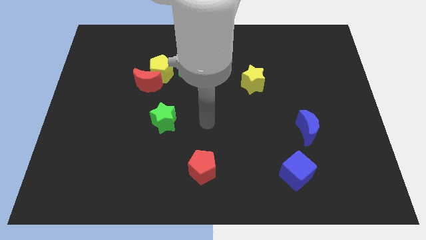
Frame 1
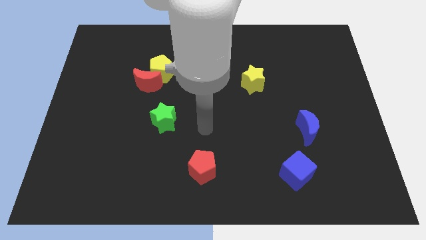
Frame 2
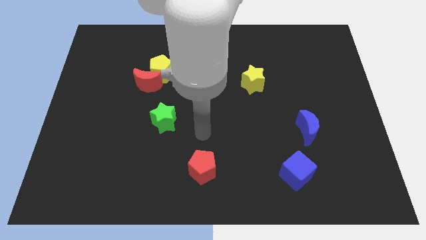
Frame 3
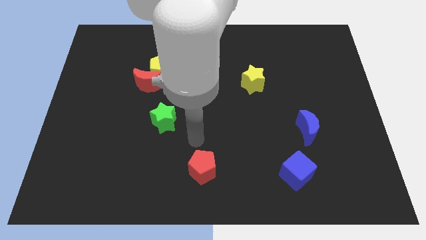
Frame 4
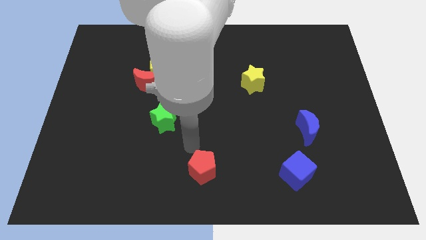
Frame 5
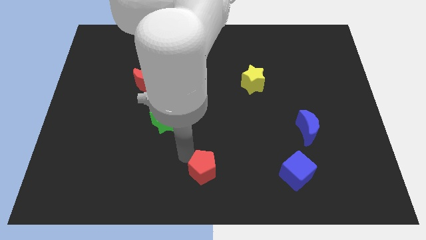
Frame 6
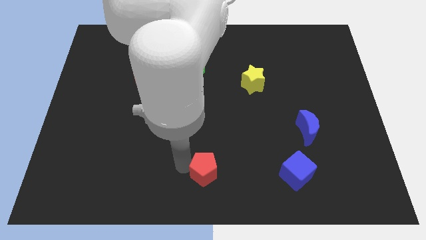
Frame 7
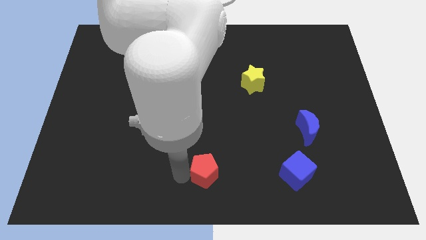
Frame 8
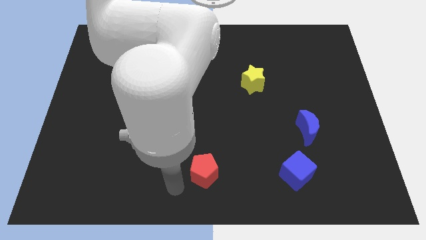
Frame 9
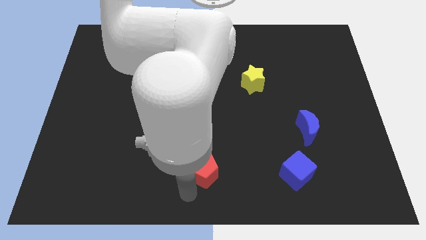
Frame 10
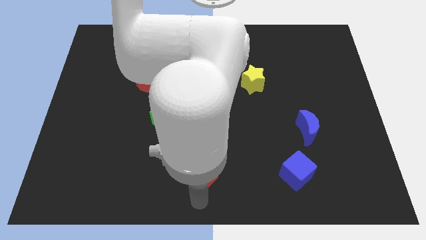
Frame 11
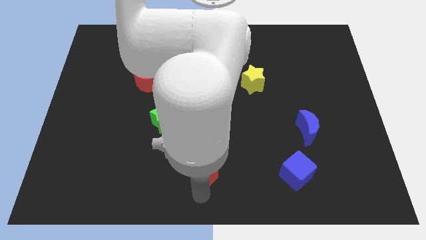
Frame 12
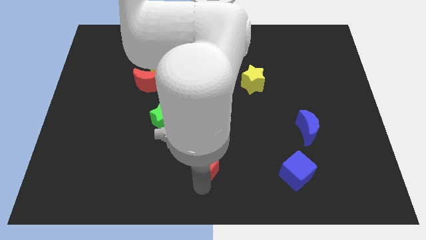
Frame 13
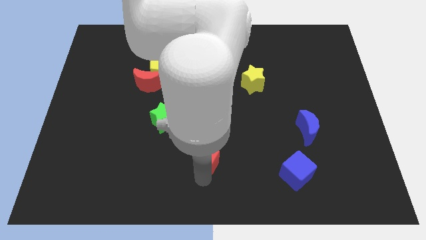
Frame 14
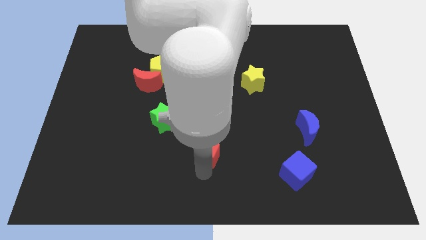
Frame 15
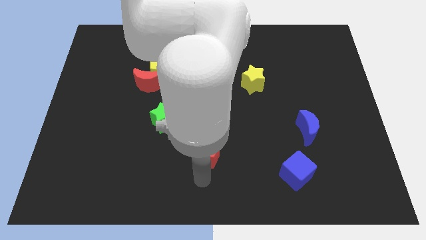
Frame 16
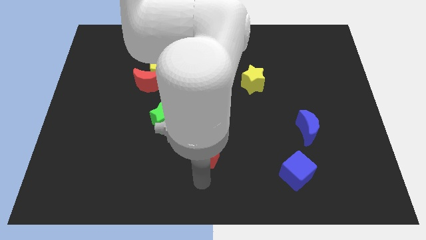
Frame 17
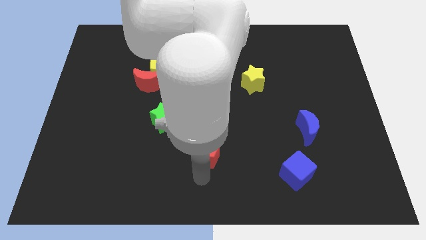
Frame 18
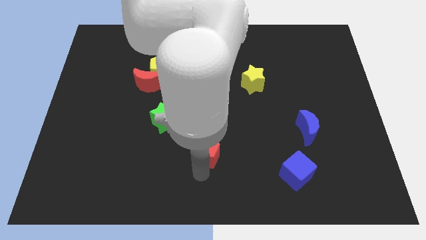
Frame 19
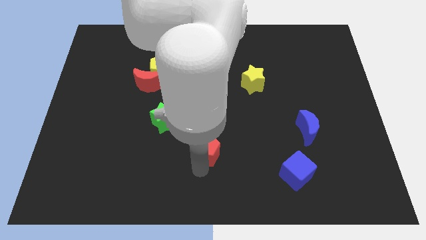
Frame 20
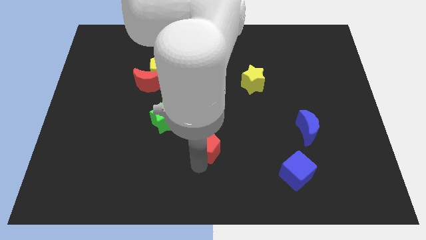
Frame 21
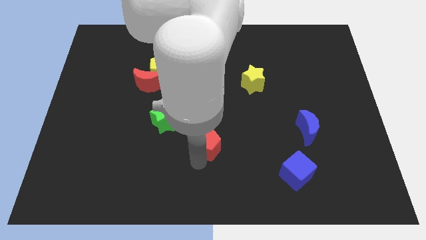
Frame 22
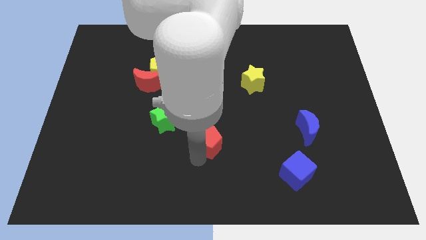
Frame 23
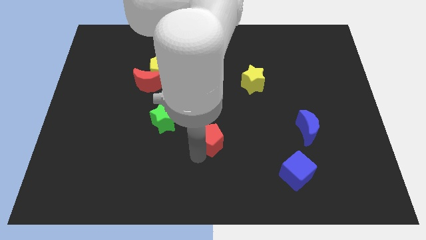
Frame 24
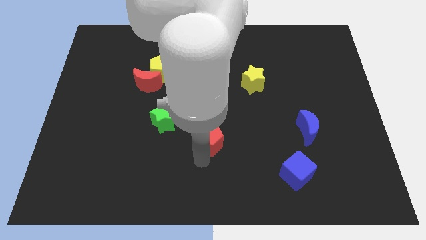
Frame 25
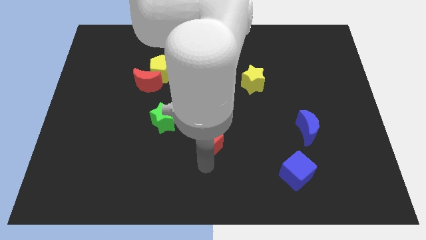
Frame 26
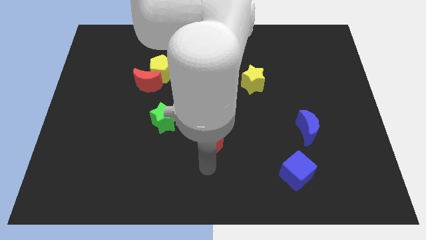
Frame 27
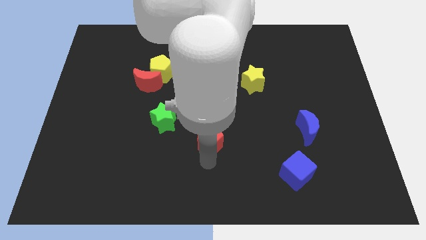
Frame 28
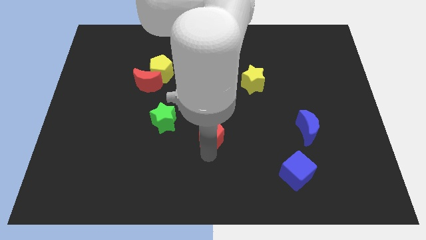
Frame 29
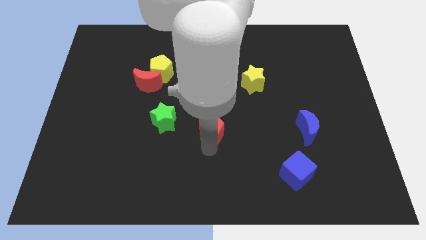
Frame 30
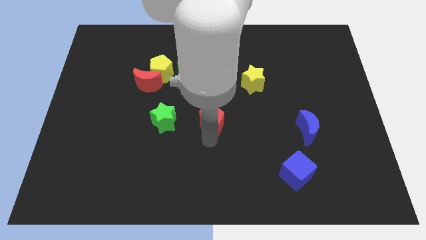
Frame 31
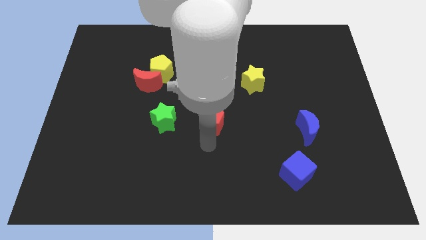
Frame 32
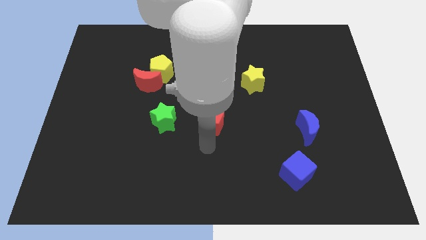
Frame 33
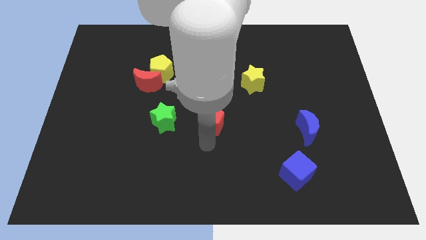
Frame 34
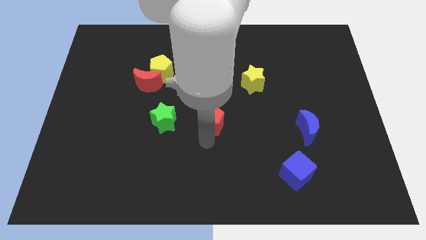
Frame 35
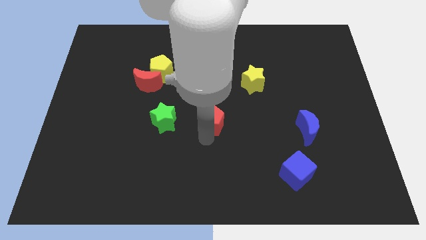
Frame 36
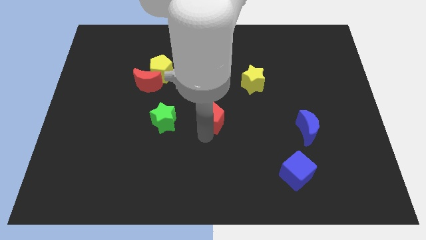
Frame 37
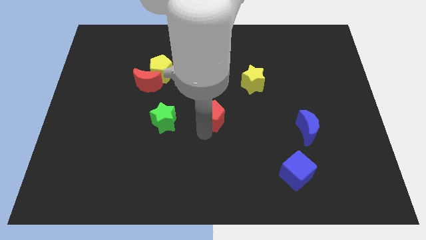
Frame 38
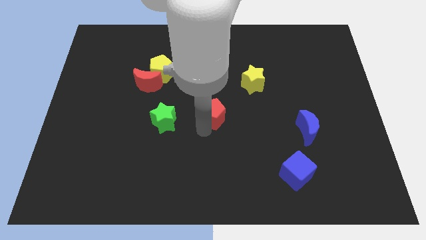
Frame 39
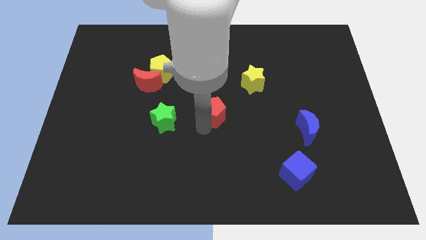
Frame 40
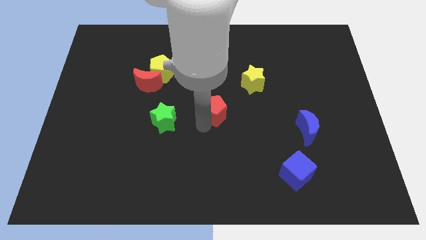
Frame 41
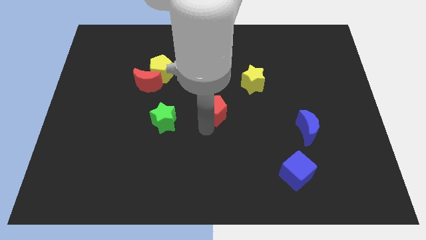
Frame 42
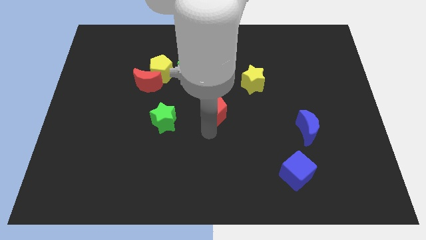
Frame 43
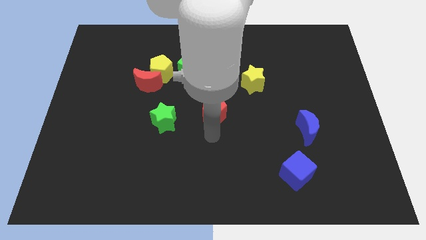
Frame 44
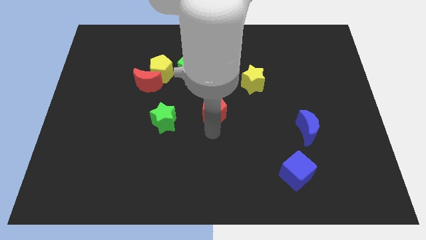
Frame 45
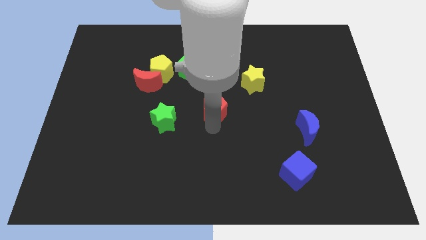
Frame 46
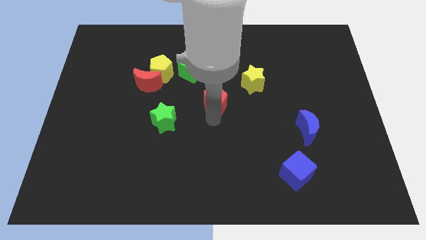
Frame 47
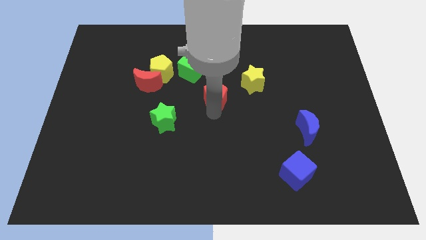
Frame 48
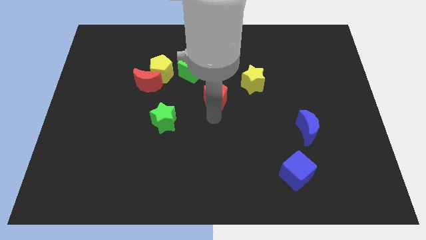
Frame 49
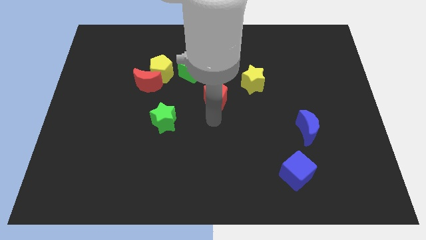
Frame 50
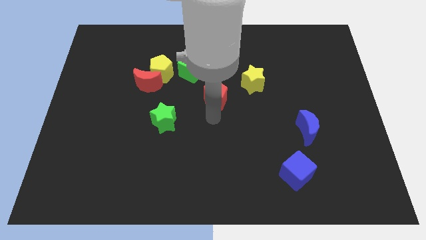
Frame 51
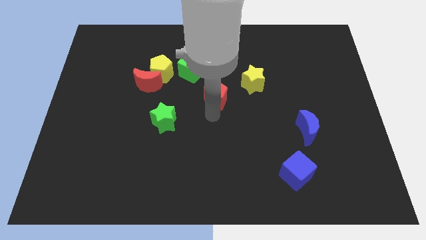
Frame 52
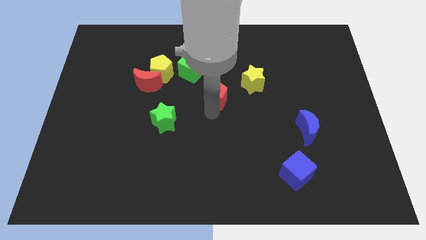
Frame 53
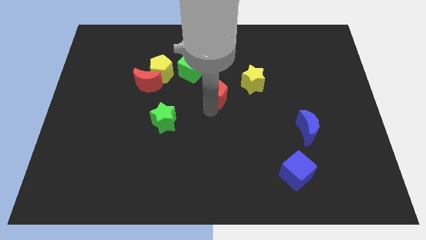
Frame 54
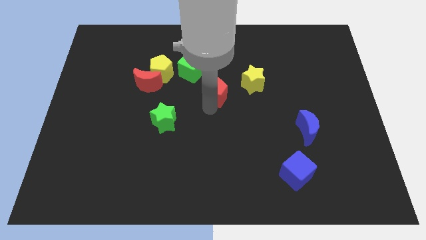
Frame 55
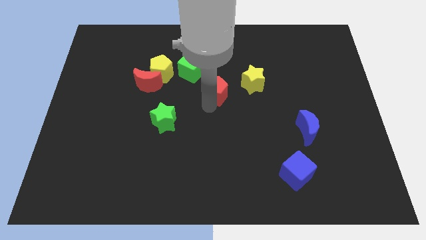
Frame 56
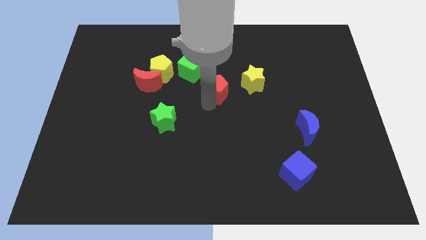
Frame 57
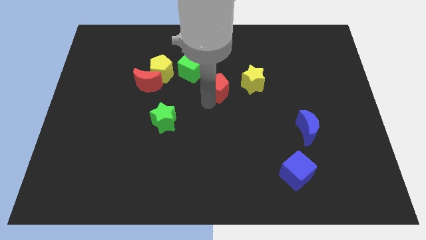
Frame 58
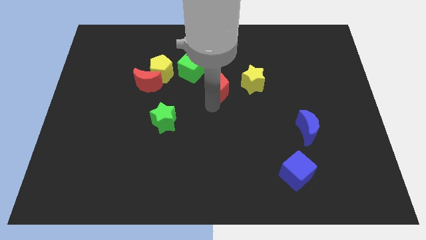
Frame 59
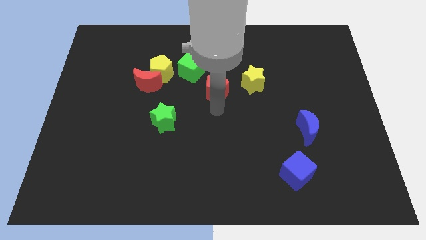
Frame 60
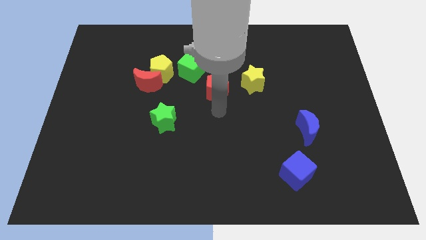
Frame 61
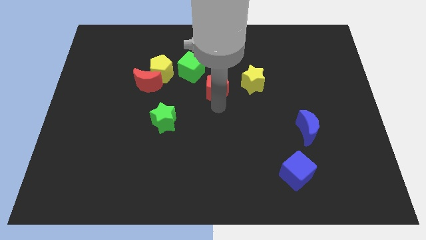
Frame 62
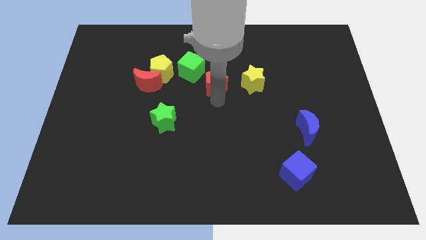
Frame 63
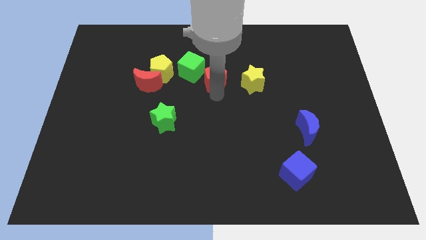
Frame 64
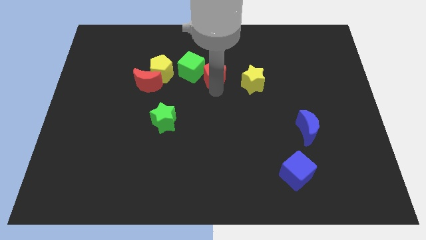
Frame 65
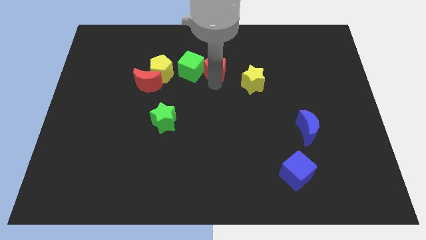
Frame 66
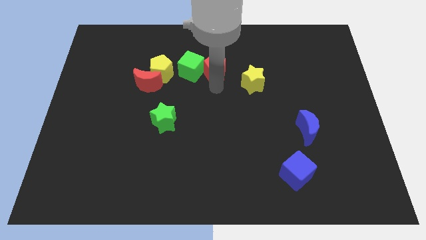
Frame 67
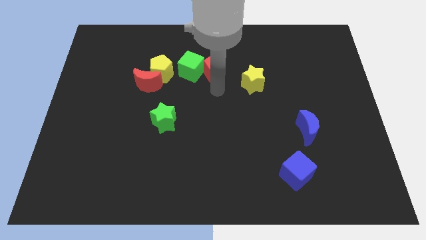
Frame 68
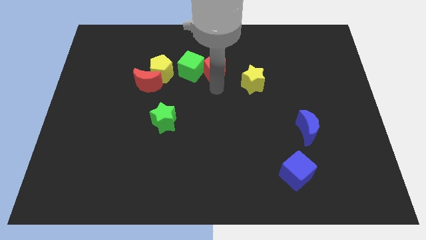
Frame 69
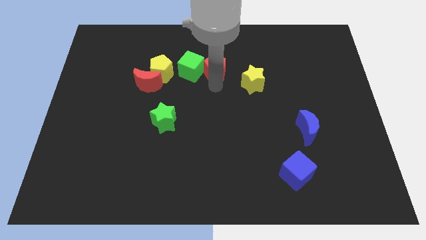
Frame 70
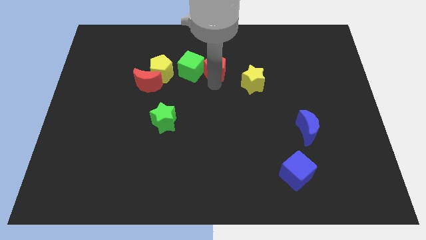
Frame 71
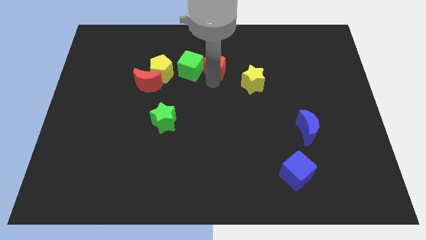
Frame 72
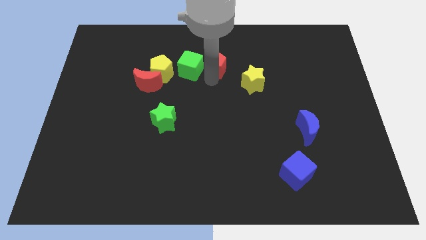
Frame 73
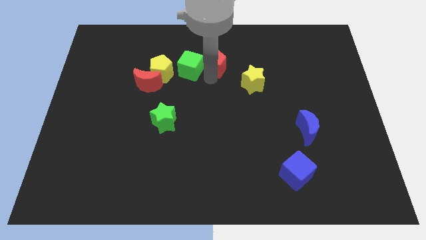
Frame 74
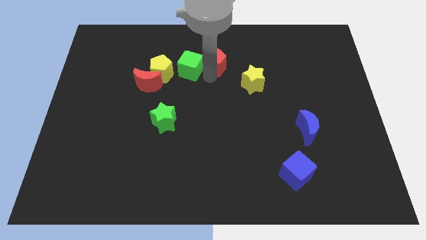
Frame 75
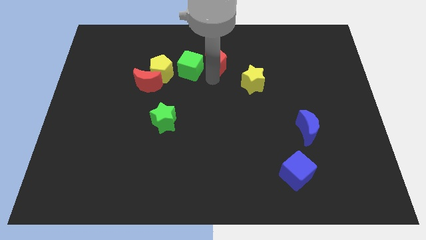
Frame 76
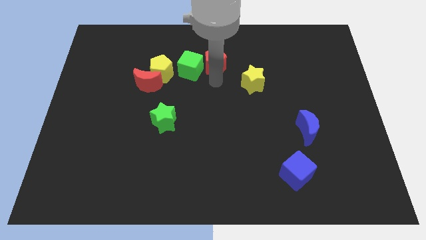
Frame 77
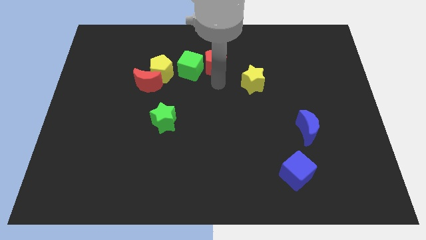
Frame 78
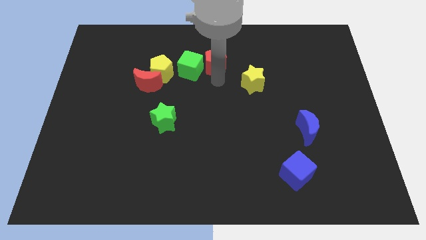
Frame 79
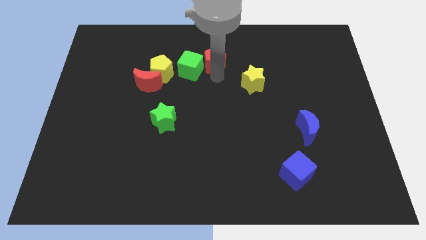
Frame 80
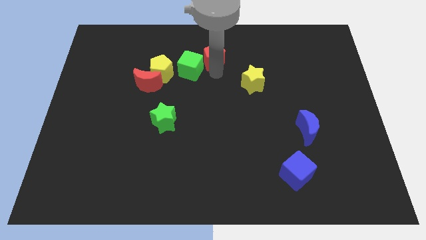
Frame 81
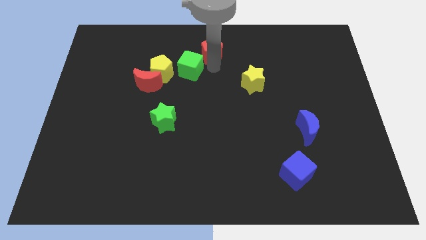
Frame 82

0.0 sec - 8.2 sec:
move the red pentagon to the top side
